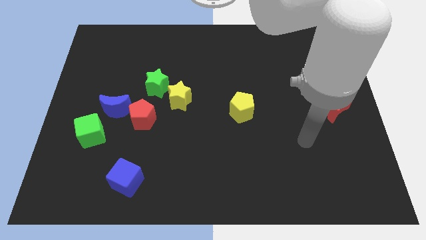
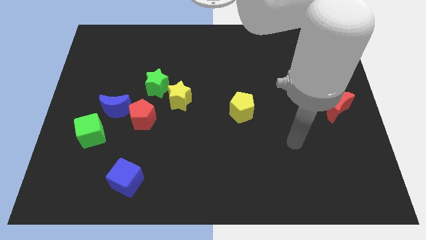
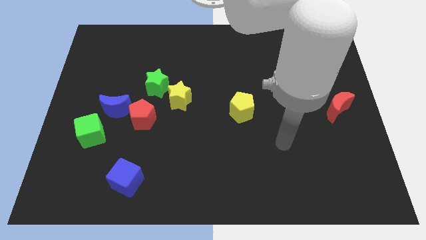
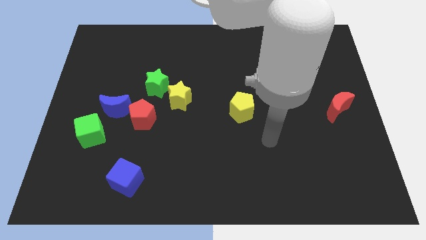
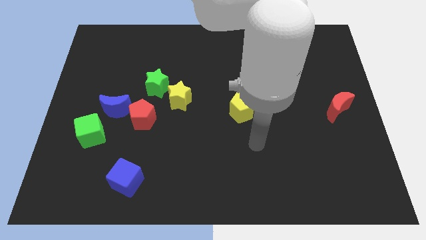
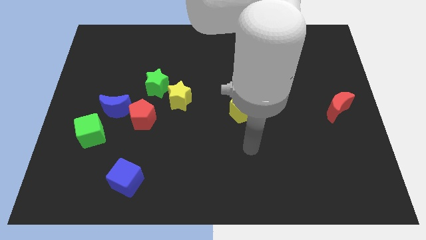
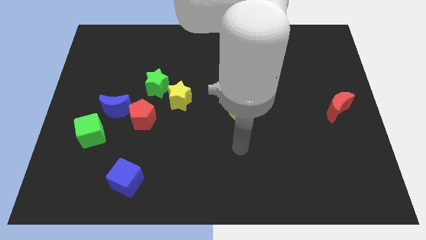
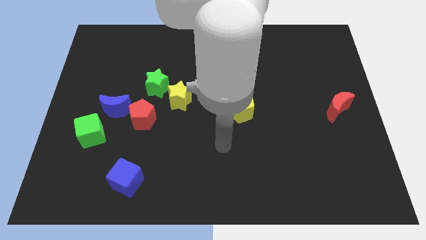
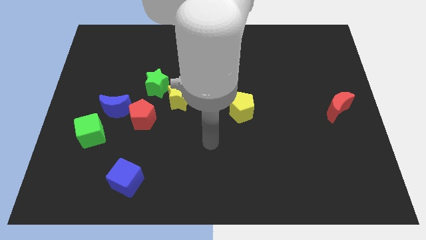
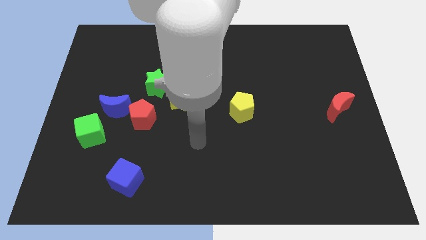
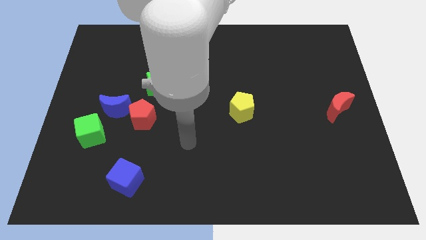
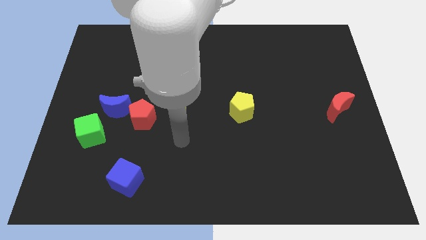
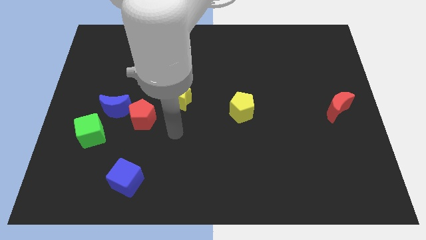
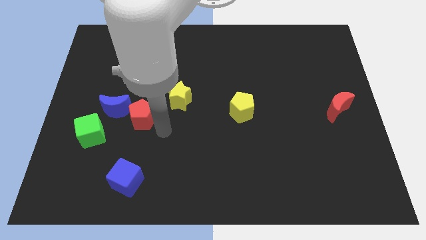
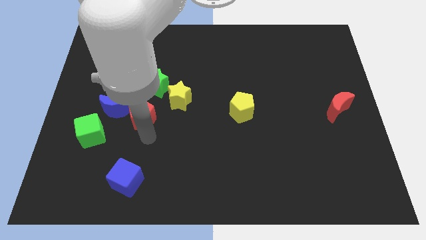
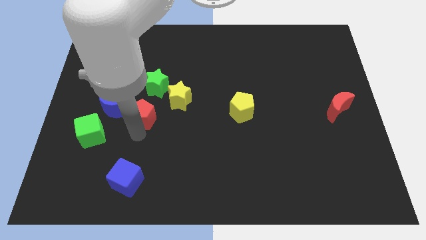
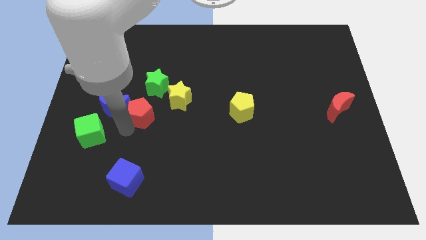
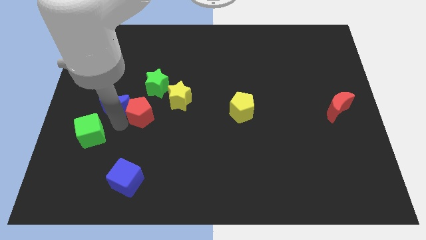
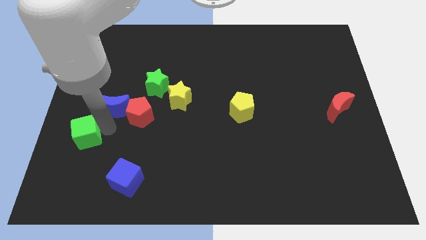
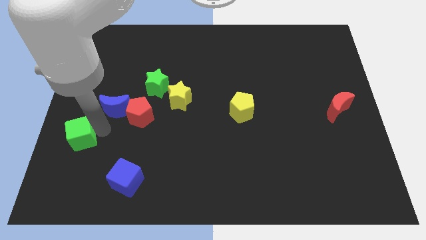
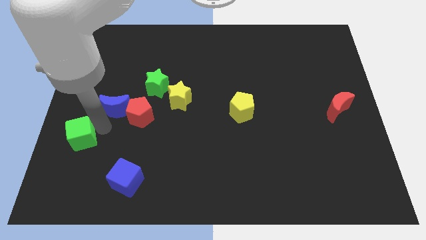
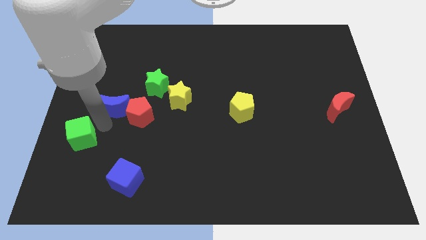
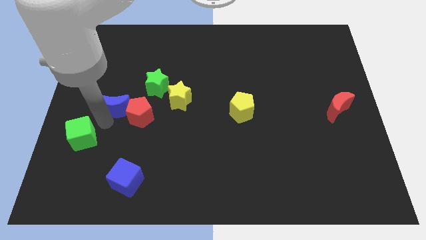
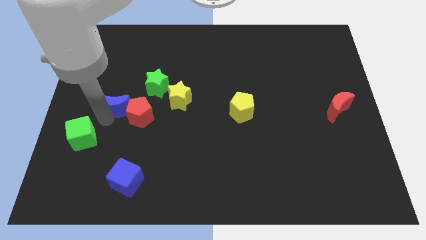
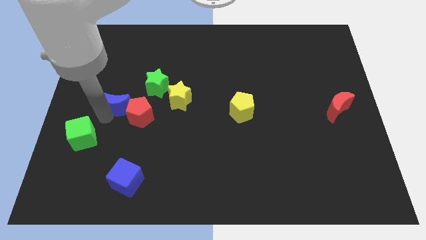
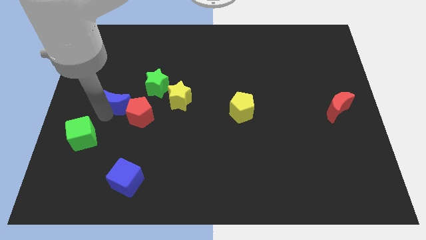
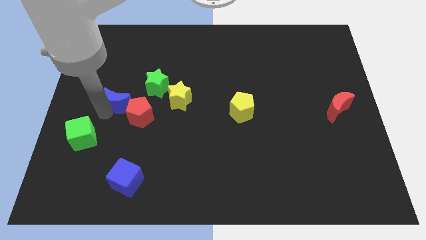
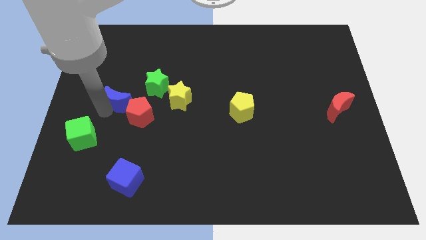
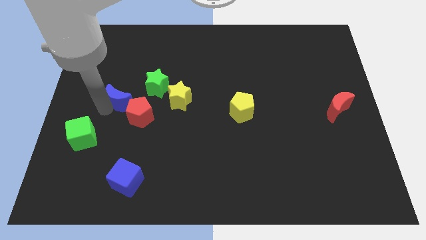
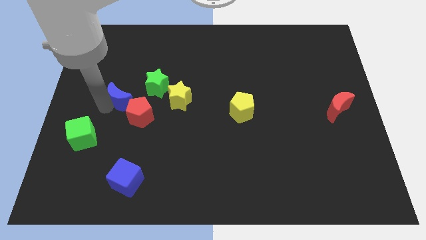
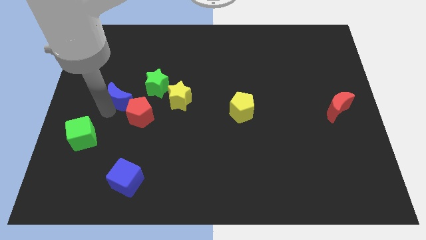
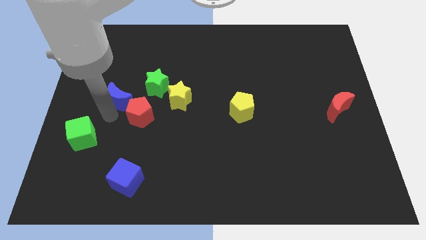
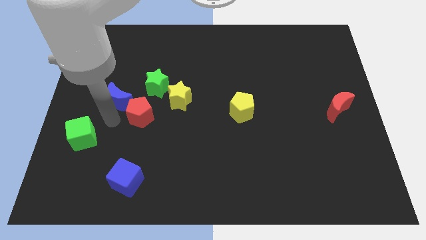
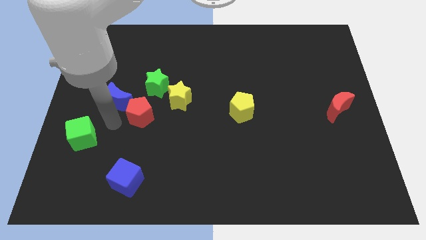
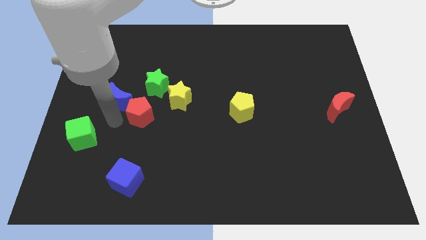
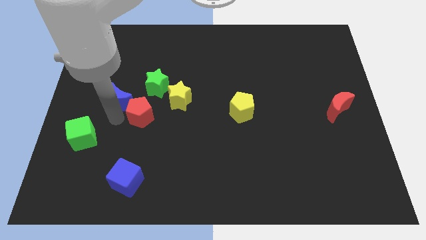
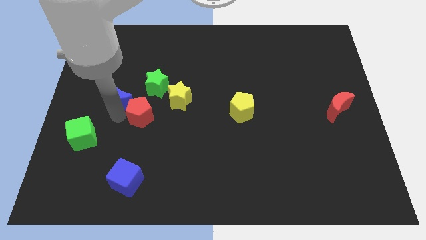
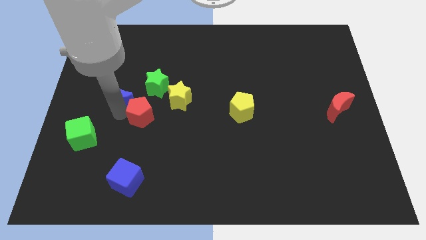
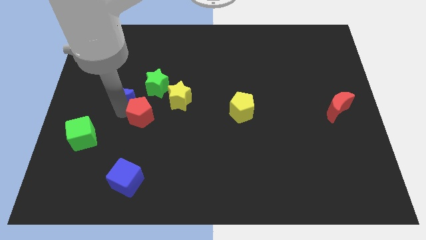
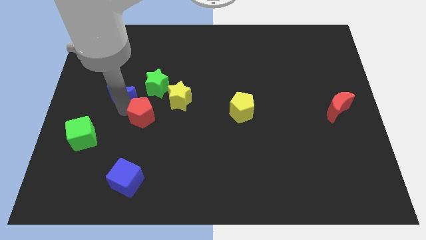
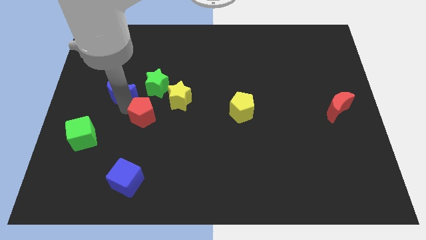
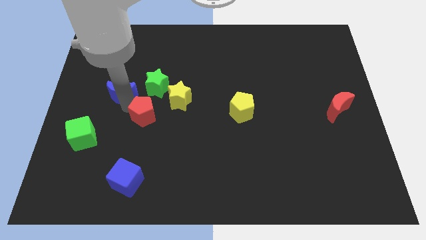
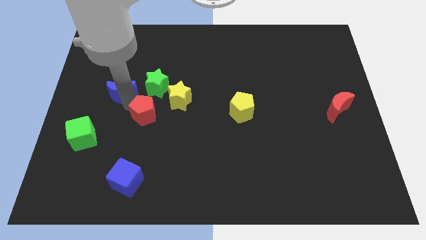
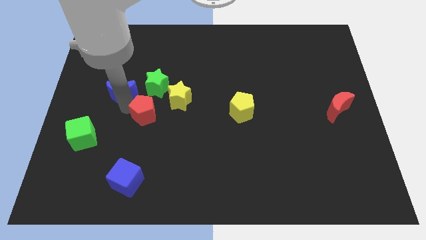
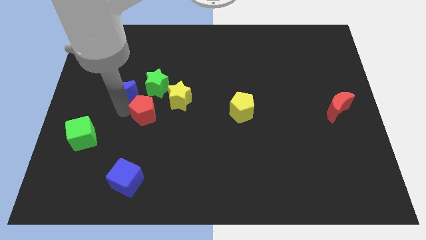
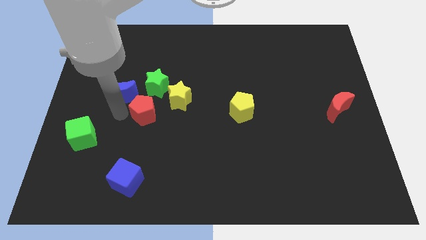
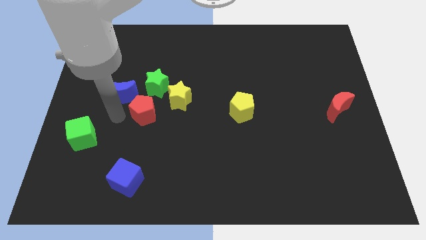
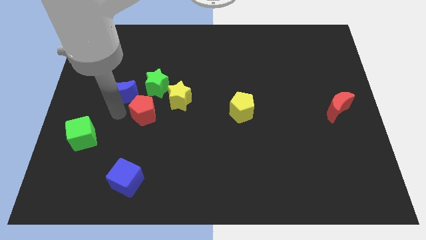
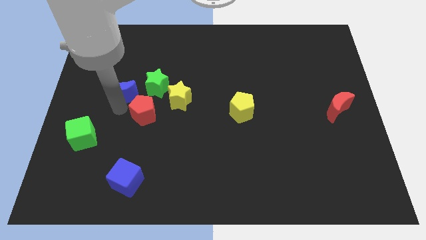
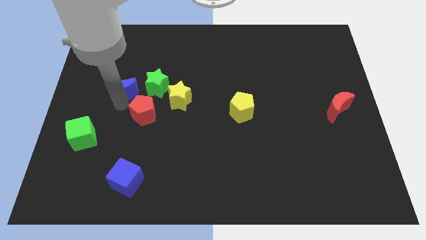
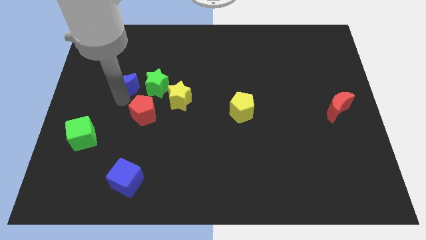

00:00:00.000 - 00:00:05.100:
move the blue moon away from the red pentagon and green cube

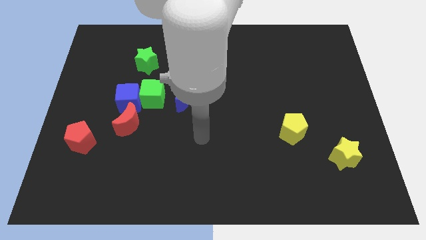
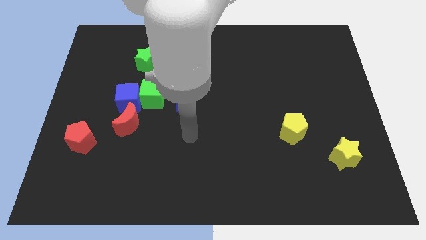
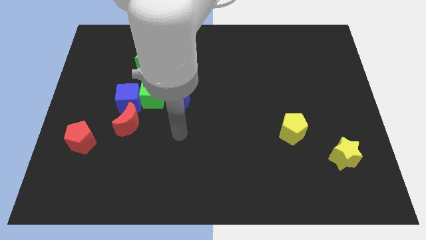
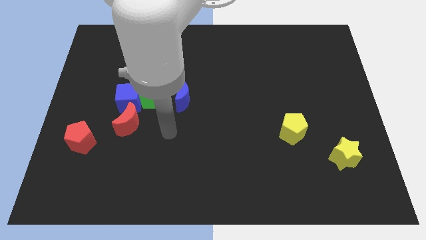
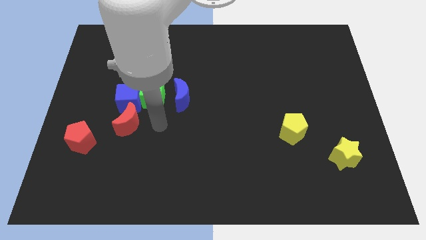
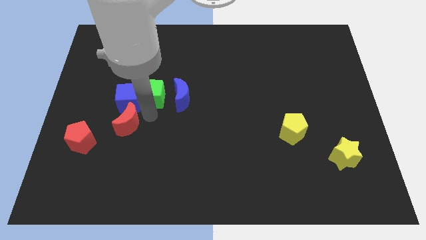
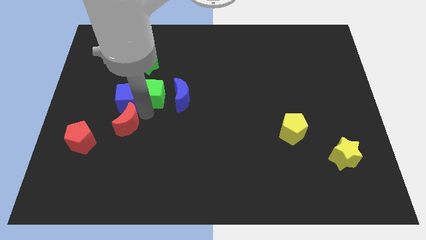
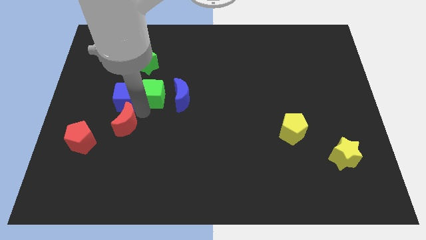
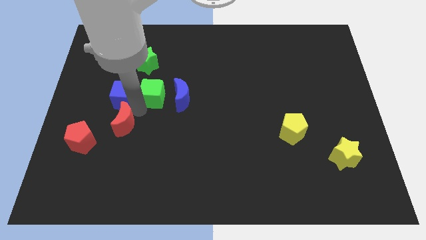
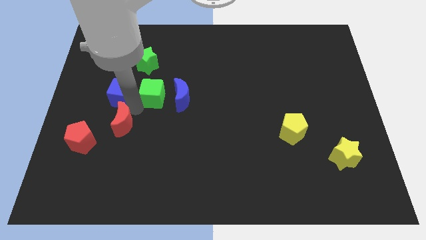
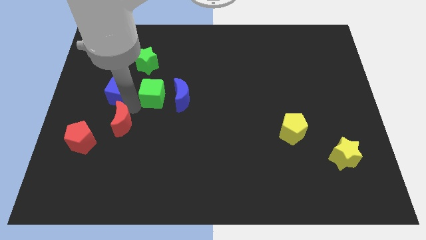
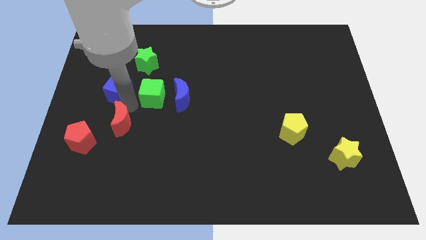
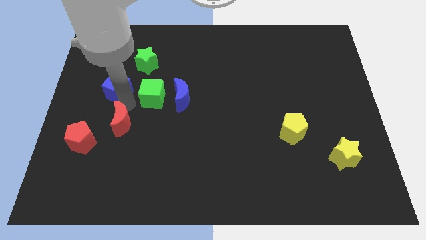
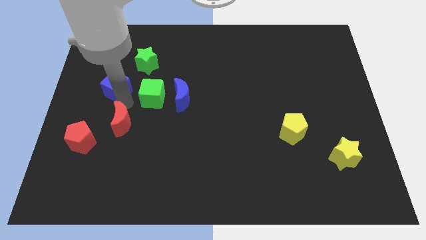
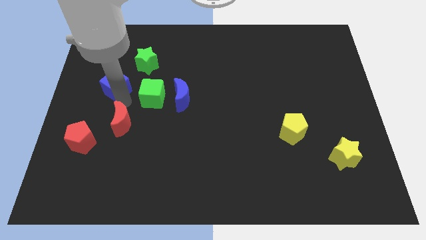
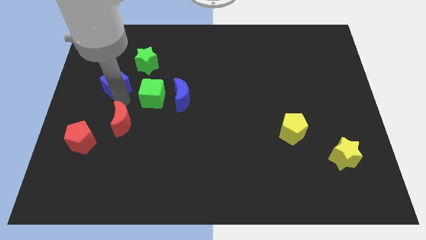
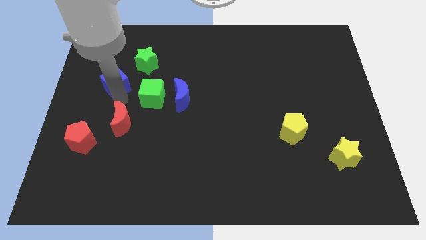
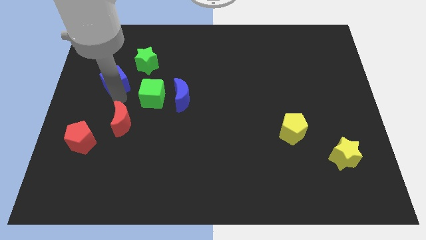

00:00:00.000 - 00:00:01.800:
separate the blue cube from the green cube and red moon

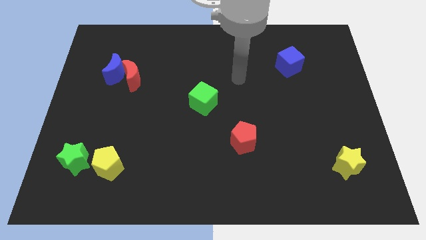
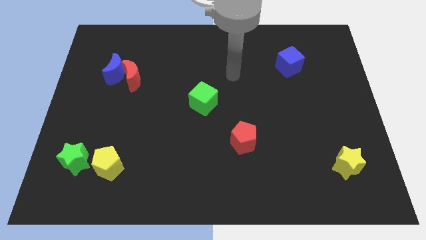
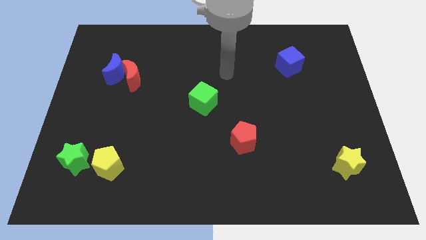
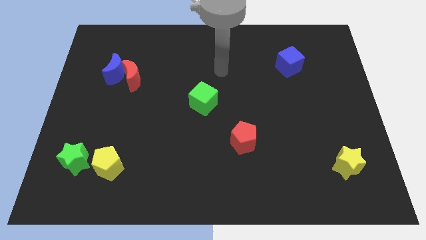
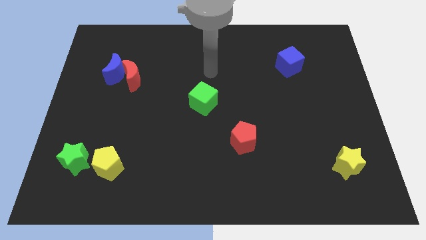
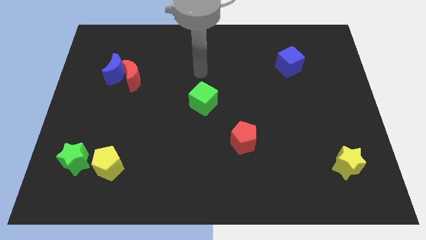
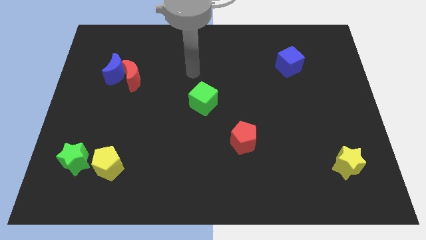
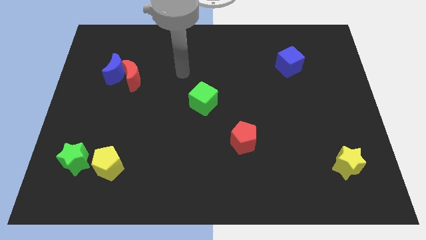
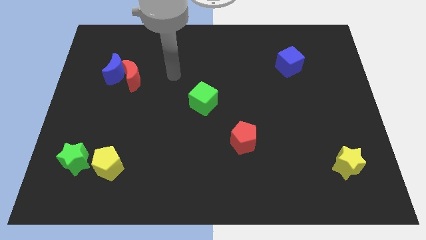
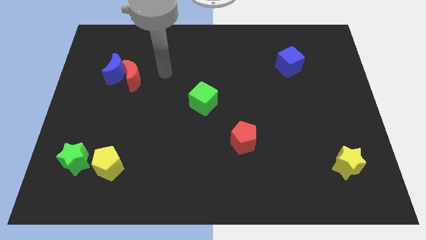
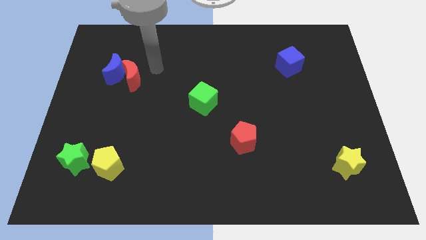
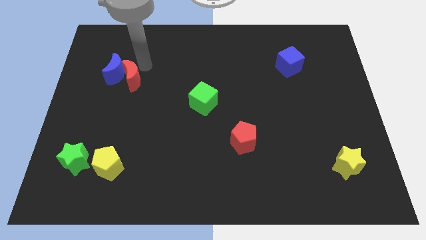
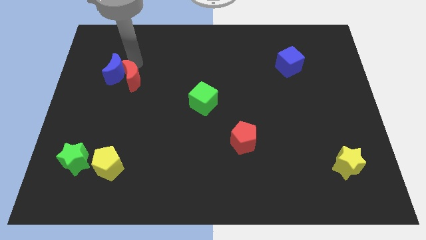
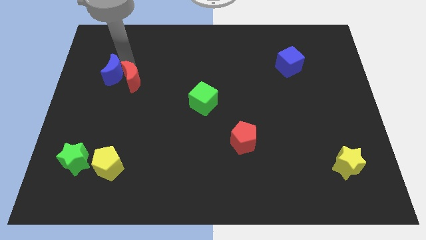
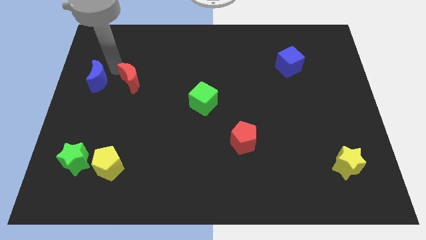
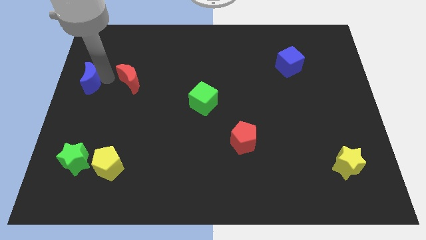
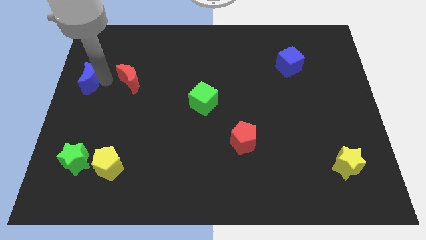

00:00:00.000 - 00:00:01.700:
separate the red moon from the blue moon

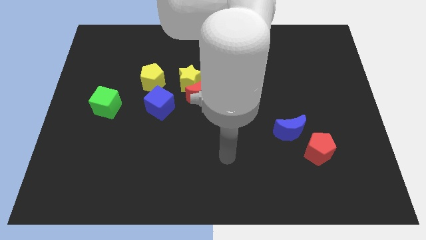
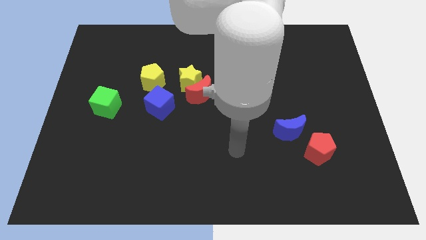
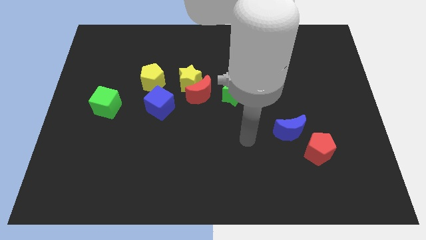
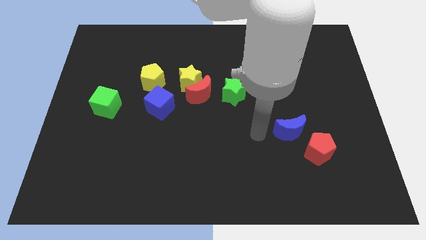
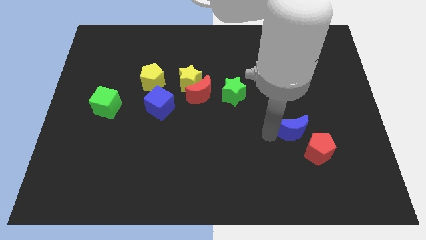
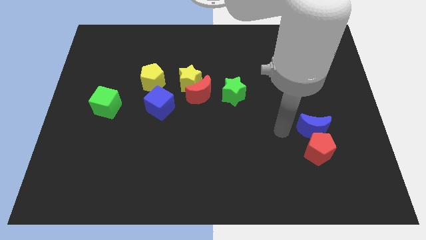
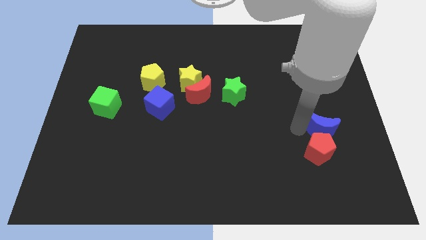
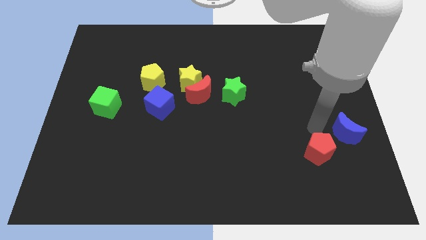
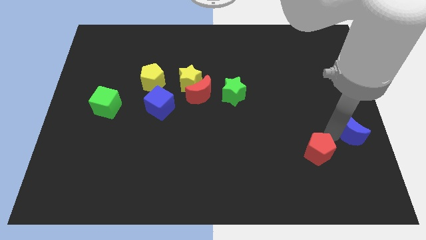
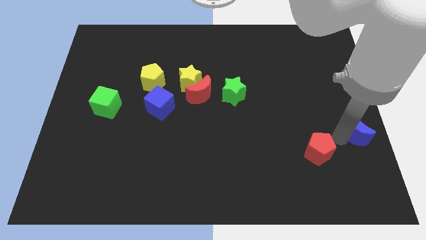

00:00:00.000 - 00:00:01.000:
separate the red pentagon from the blue moon
